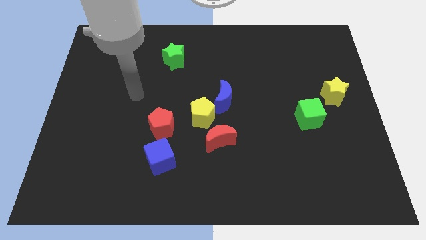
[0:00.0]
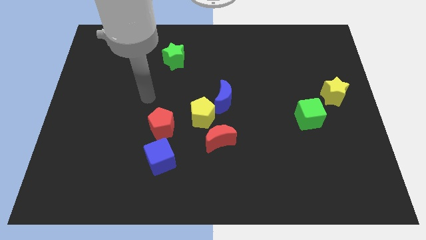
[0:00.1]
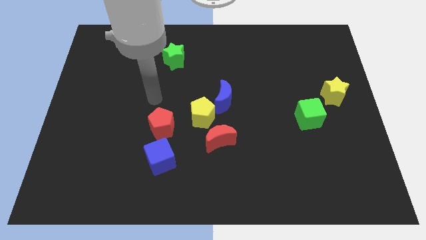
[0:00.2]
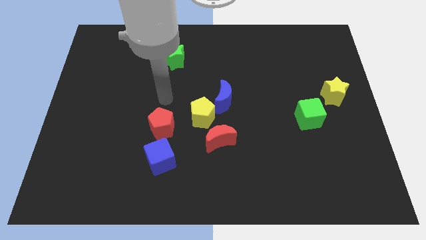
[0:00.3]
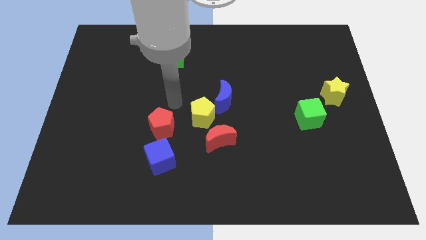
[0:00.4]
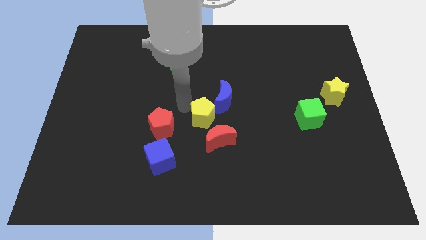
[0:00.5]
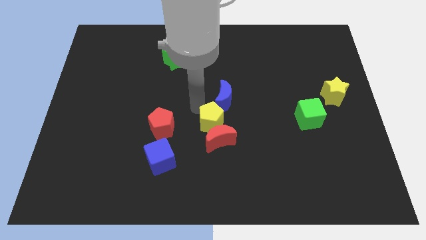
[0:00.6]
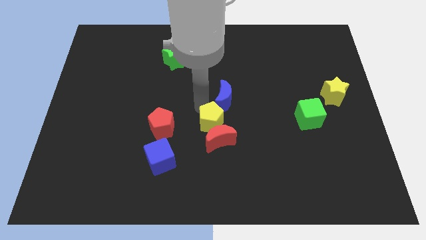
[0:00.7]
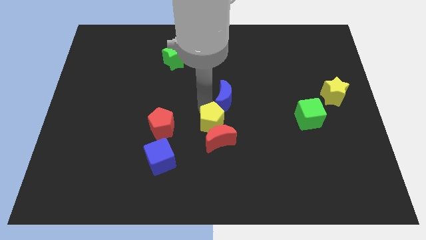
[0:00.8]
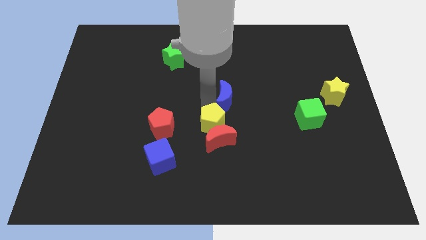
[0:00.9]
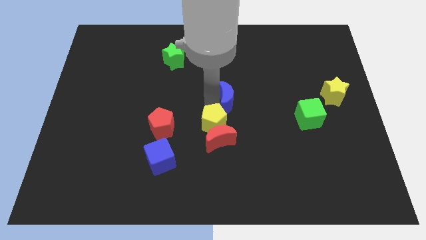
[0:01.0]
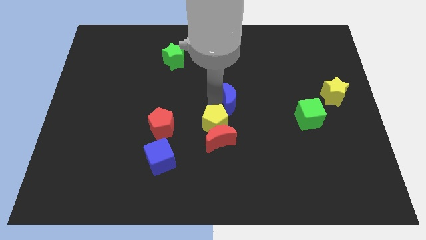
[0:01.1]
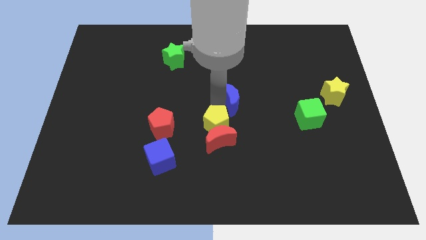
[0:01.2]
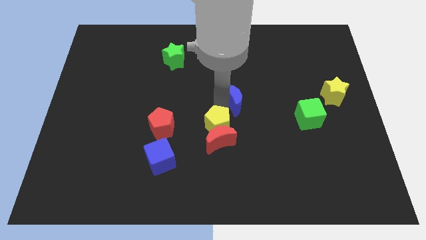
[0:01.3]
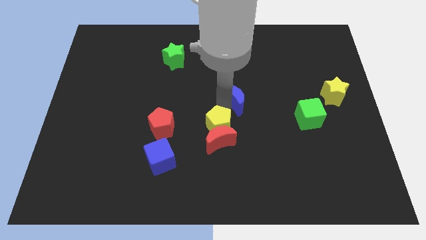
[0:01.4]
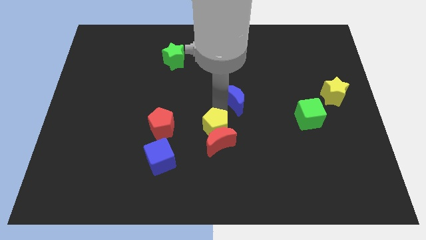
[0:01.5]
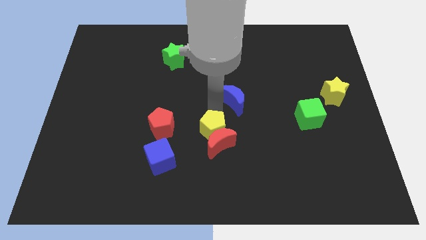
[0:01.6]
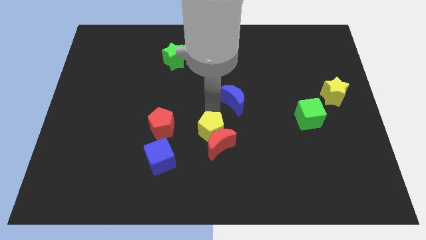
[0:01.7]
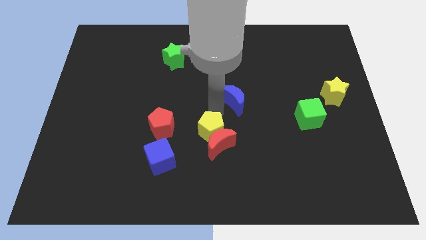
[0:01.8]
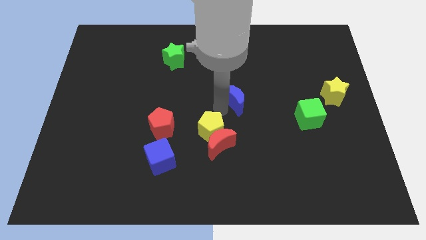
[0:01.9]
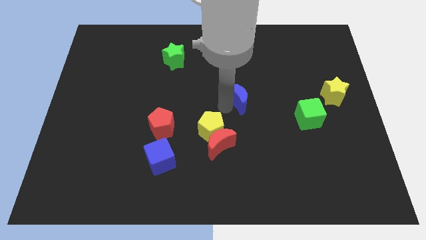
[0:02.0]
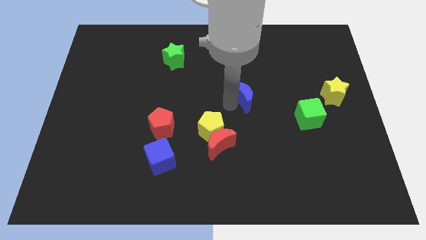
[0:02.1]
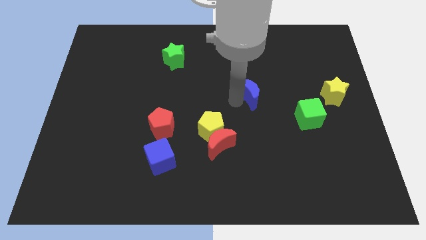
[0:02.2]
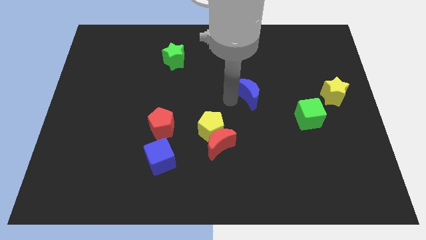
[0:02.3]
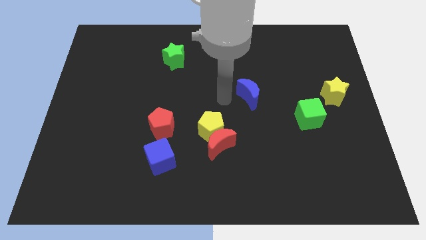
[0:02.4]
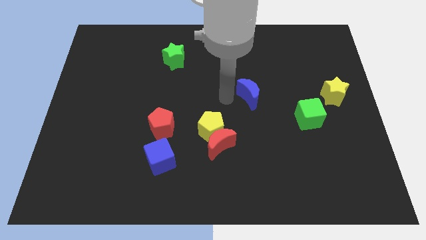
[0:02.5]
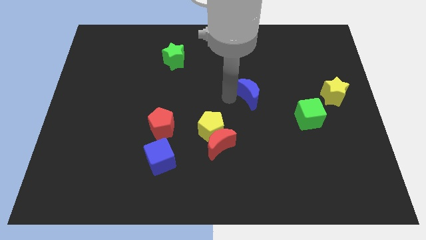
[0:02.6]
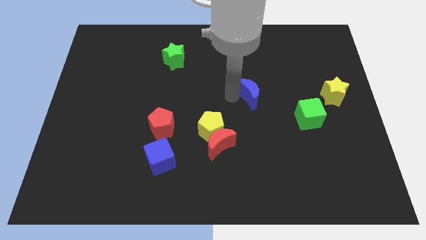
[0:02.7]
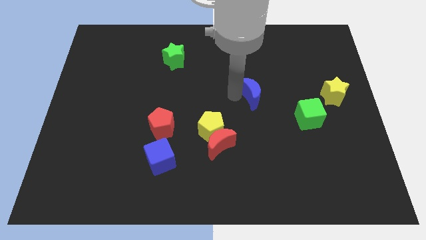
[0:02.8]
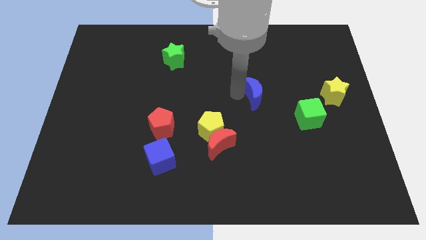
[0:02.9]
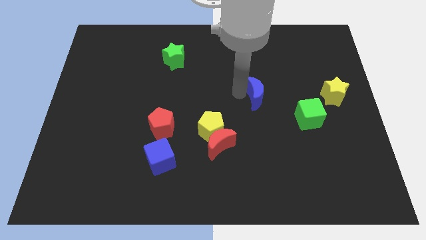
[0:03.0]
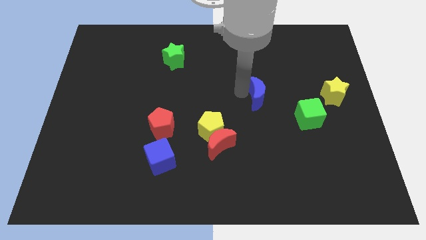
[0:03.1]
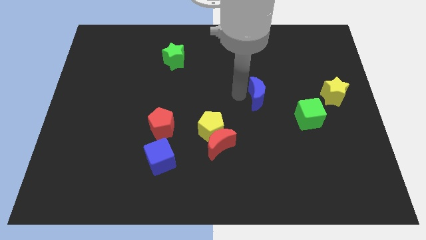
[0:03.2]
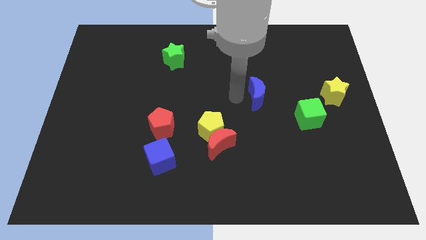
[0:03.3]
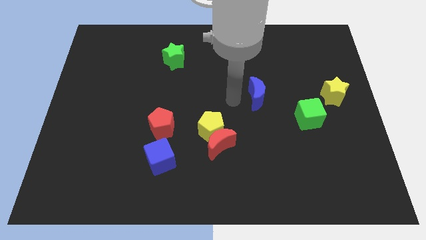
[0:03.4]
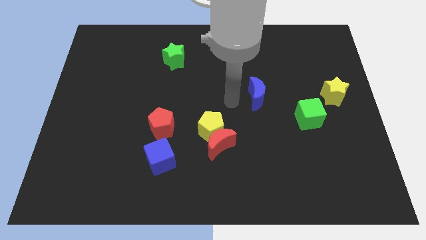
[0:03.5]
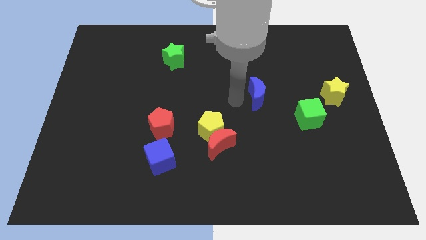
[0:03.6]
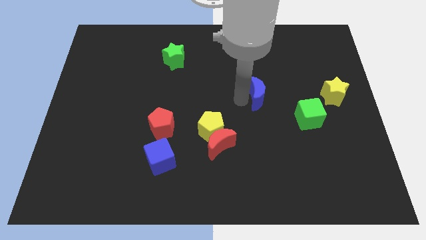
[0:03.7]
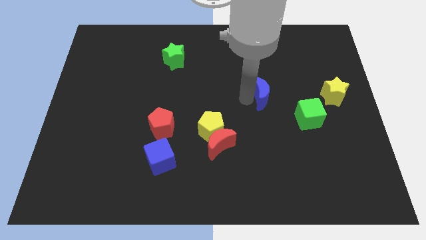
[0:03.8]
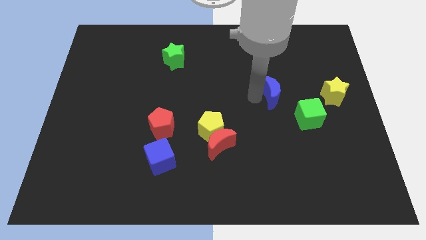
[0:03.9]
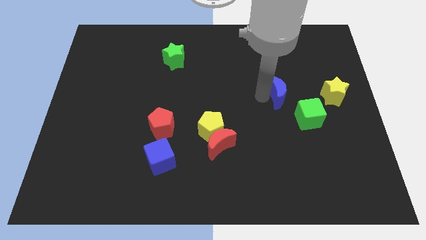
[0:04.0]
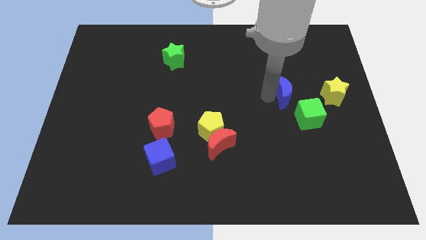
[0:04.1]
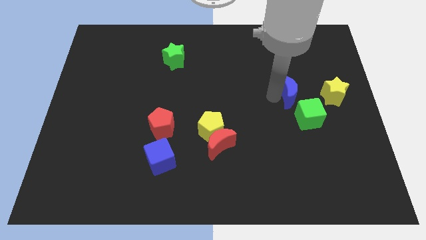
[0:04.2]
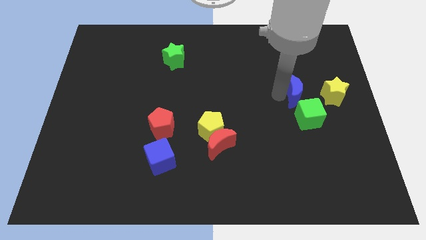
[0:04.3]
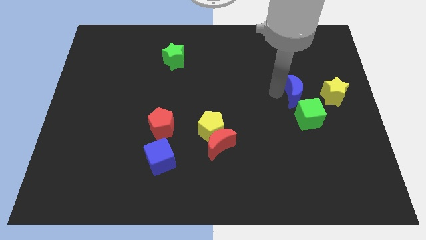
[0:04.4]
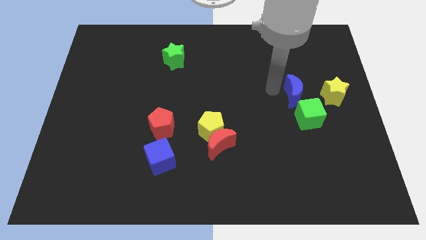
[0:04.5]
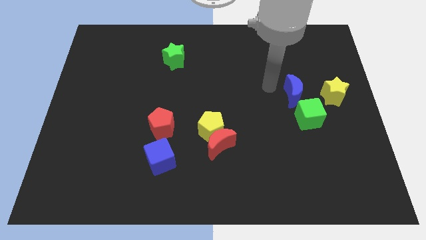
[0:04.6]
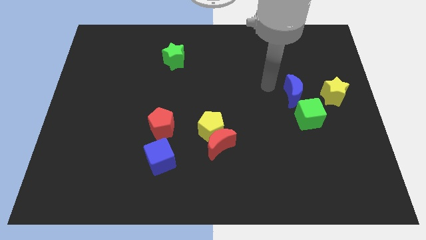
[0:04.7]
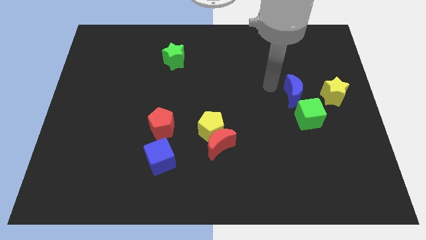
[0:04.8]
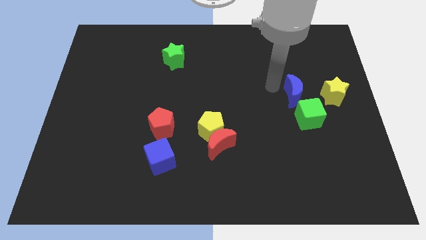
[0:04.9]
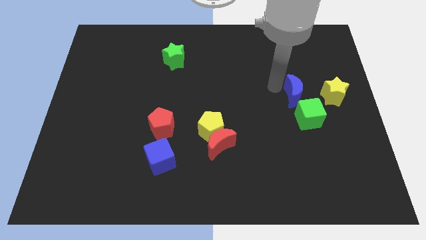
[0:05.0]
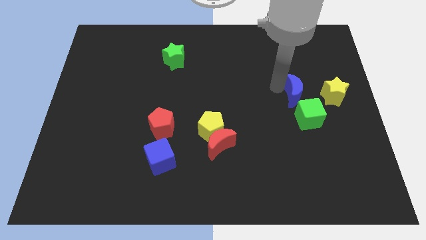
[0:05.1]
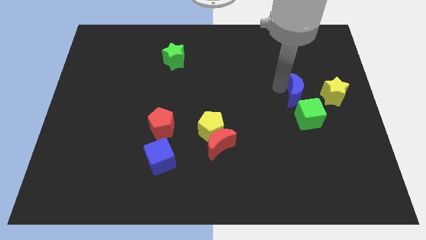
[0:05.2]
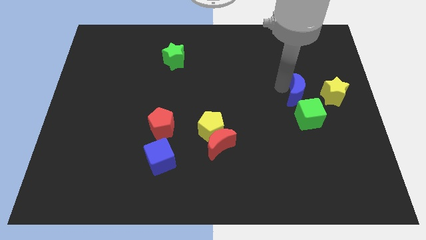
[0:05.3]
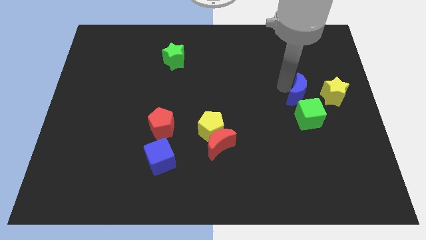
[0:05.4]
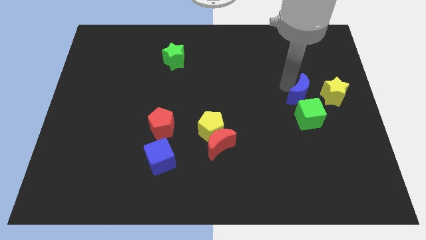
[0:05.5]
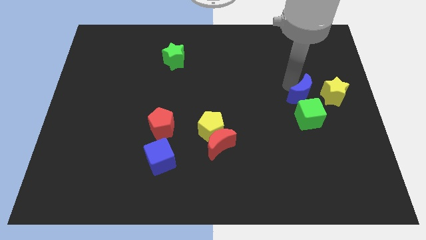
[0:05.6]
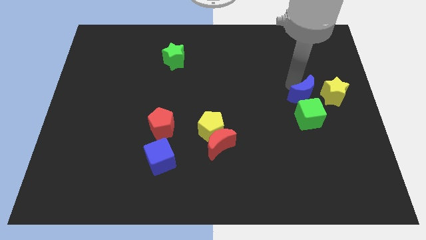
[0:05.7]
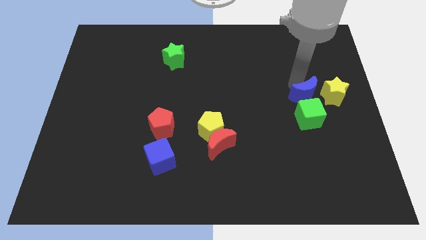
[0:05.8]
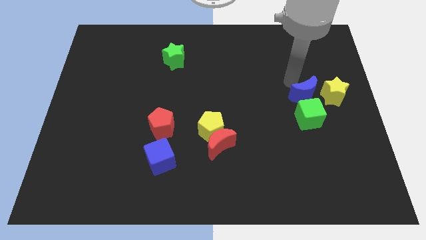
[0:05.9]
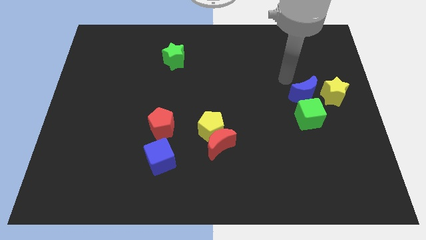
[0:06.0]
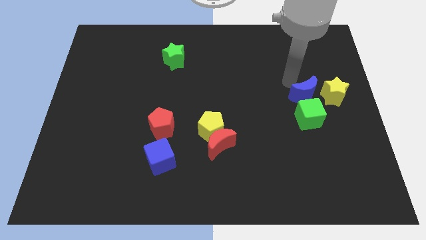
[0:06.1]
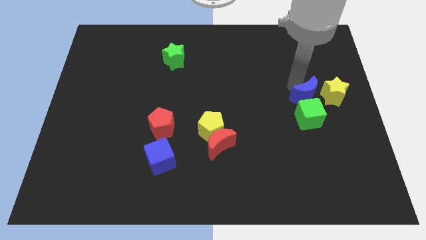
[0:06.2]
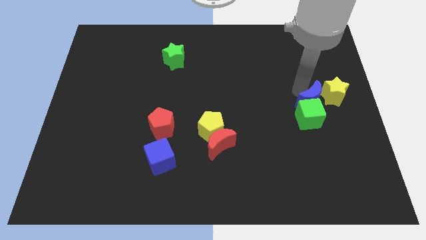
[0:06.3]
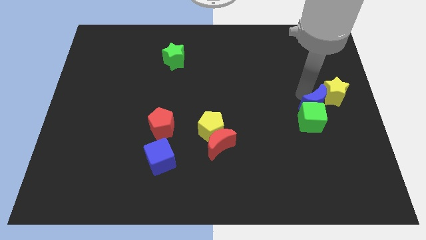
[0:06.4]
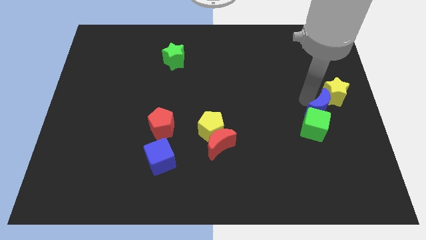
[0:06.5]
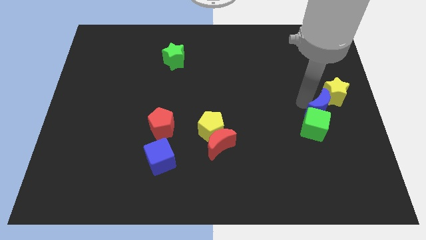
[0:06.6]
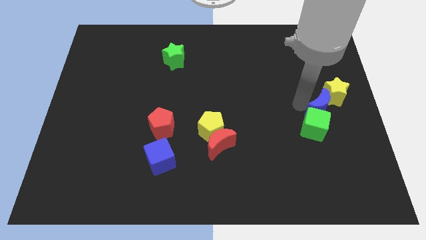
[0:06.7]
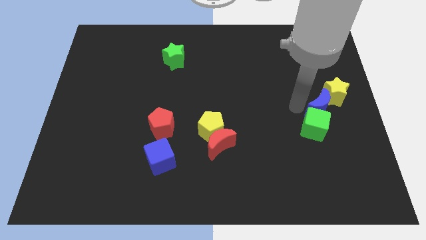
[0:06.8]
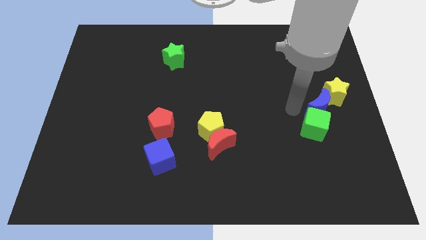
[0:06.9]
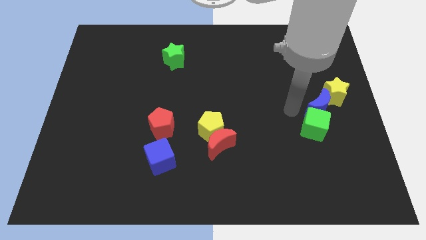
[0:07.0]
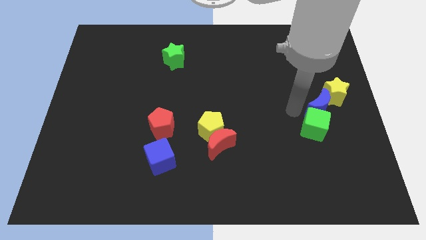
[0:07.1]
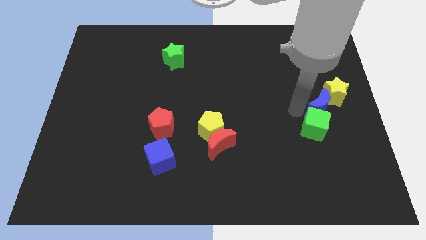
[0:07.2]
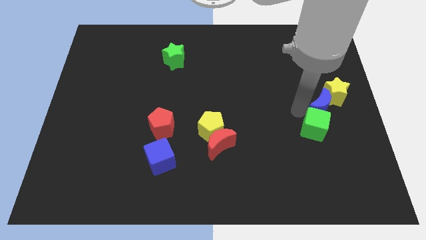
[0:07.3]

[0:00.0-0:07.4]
push the blue moon to the right side
